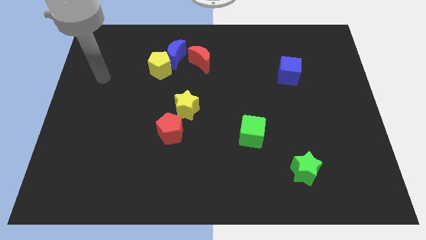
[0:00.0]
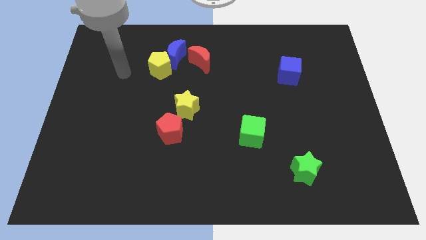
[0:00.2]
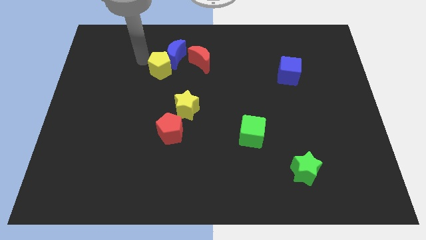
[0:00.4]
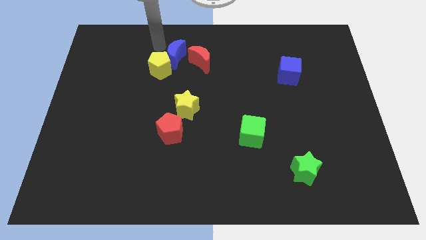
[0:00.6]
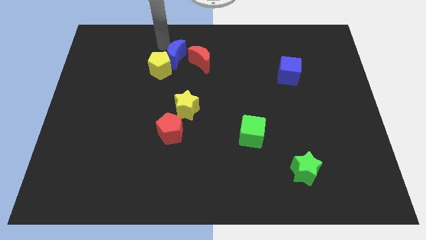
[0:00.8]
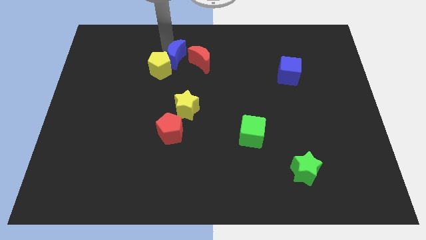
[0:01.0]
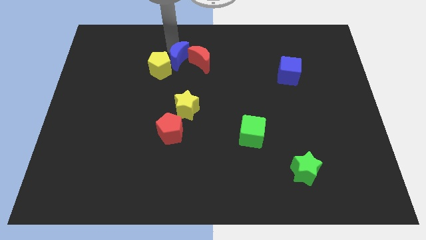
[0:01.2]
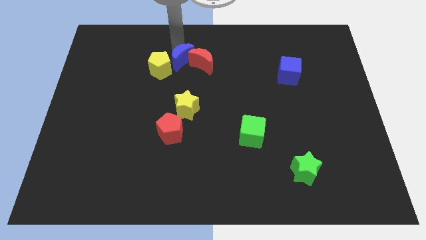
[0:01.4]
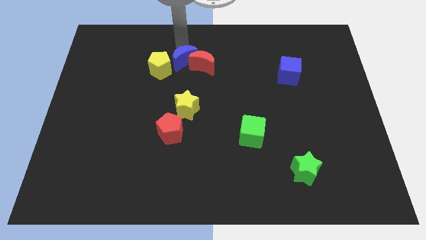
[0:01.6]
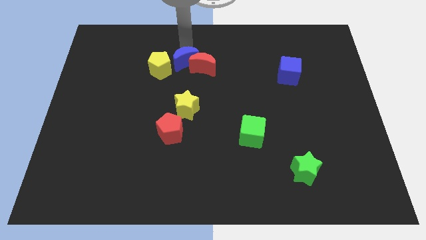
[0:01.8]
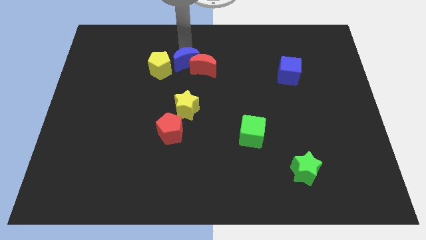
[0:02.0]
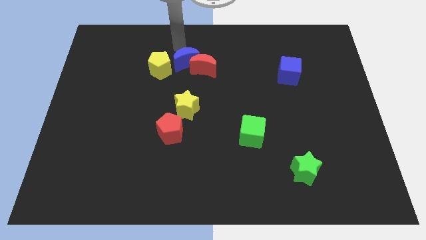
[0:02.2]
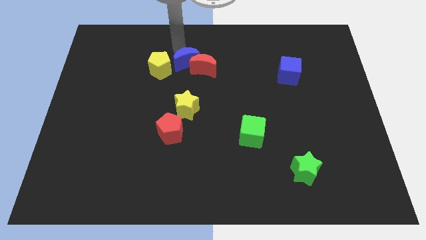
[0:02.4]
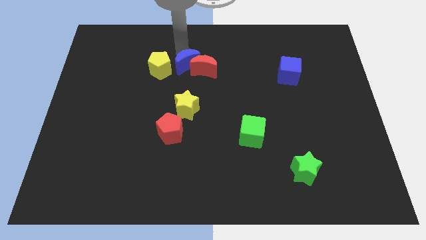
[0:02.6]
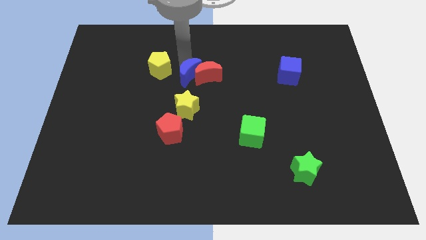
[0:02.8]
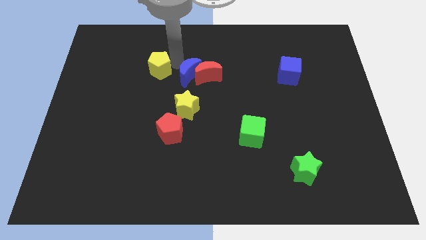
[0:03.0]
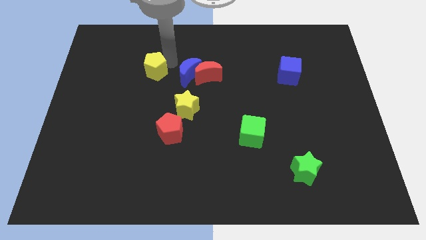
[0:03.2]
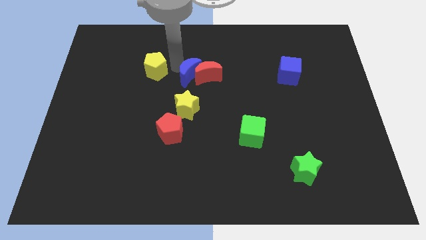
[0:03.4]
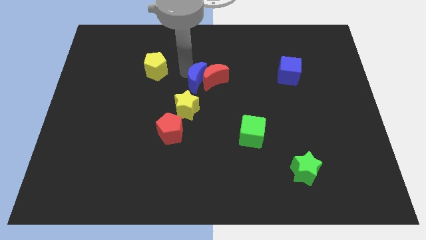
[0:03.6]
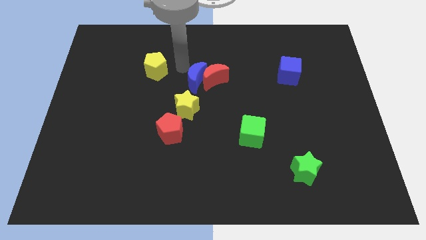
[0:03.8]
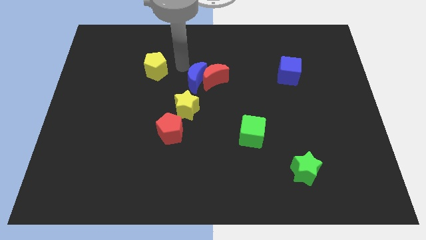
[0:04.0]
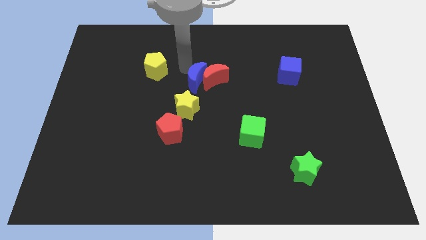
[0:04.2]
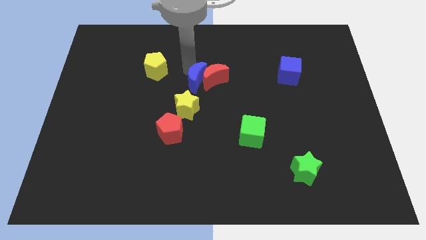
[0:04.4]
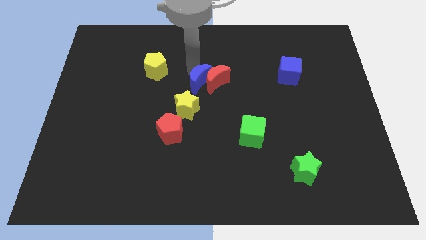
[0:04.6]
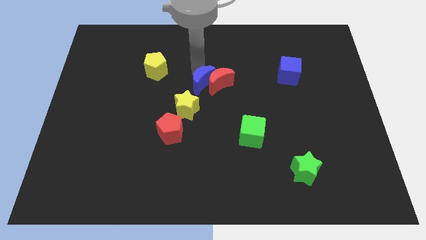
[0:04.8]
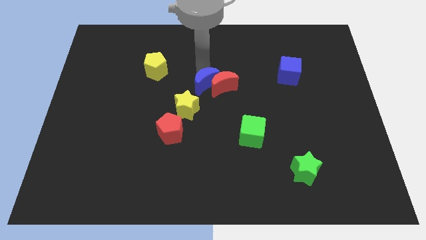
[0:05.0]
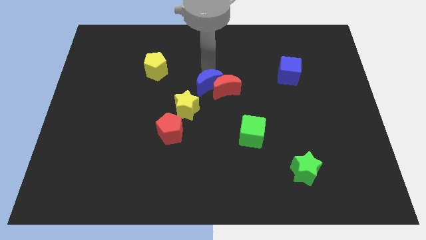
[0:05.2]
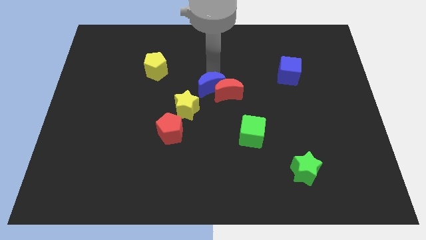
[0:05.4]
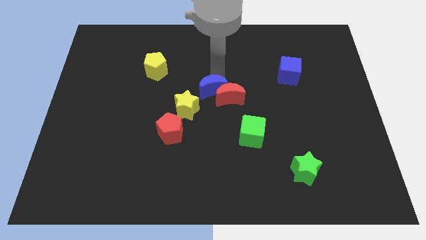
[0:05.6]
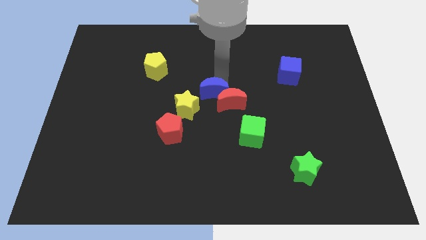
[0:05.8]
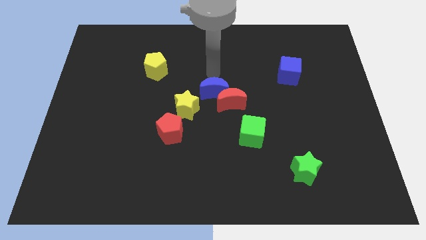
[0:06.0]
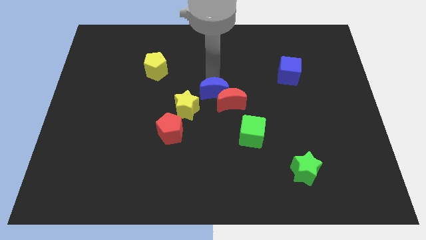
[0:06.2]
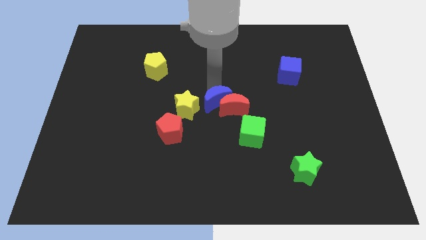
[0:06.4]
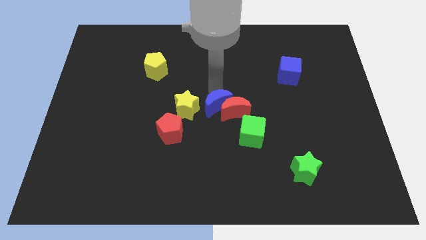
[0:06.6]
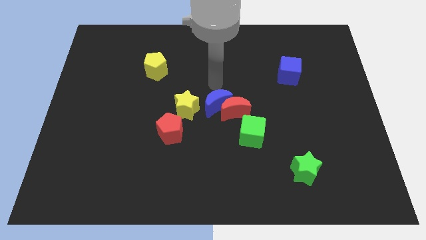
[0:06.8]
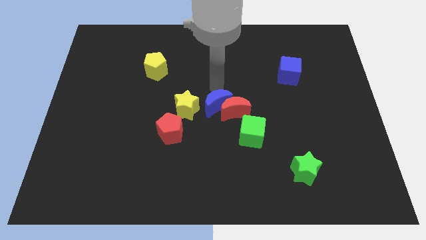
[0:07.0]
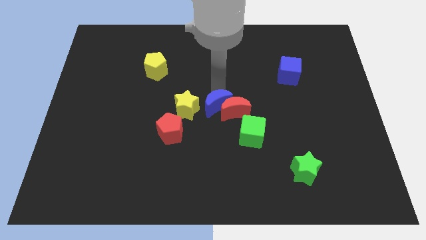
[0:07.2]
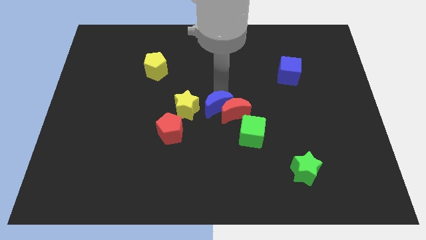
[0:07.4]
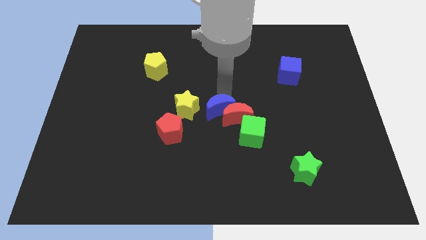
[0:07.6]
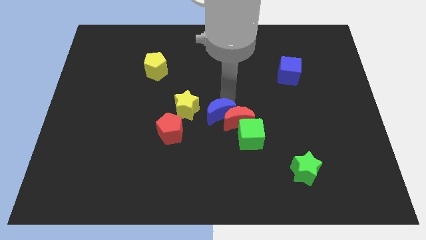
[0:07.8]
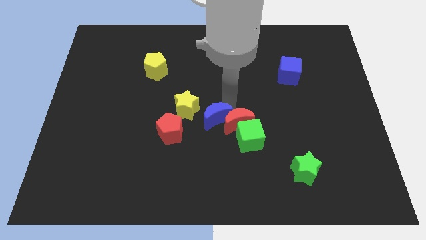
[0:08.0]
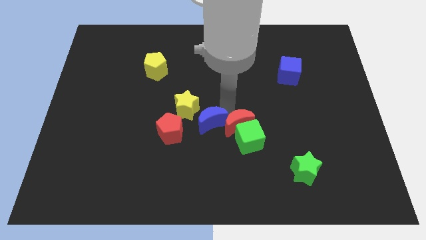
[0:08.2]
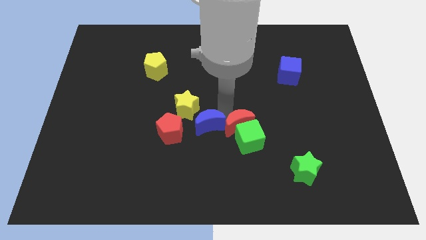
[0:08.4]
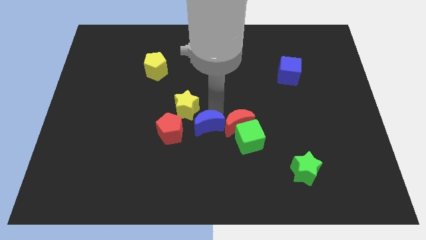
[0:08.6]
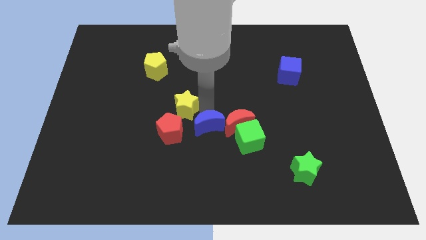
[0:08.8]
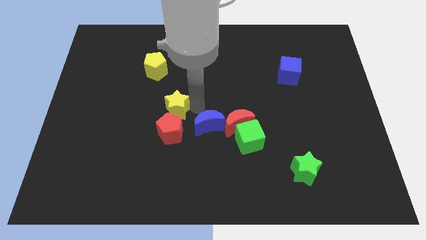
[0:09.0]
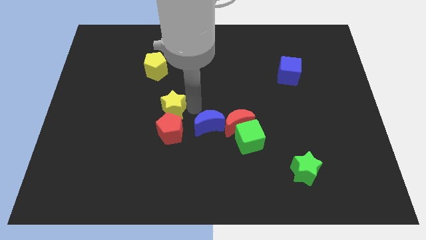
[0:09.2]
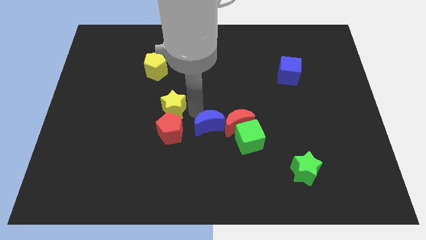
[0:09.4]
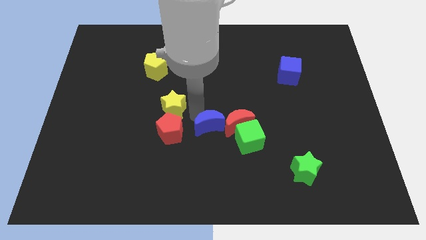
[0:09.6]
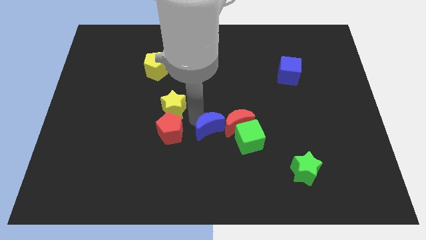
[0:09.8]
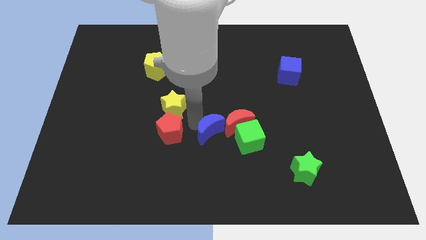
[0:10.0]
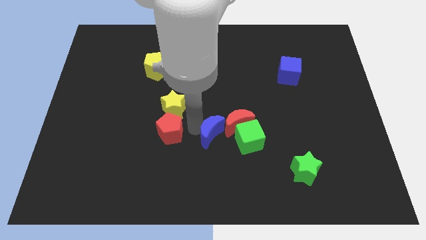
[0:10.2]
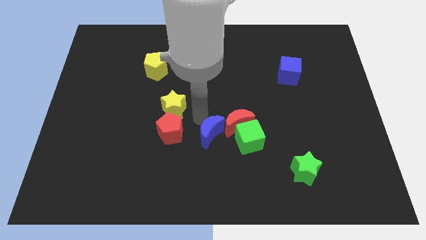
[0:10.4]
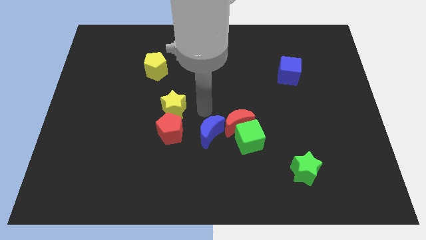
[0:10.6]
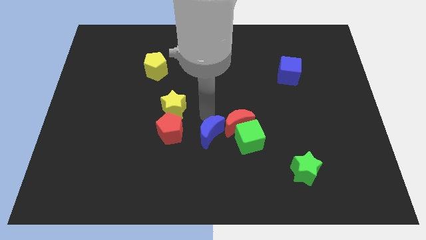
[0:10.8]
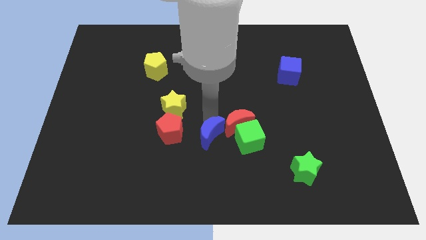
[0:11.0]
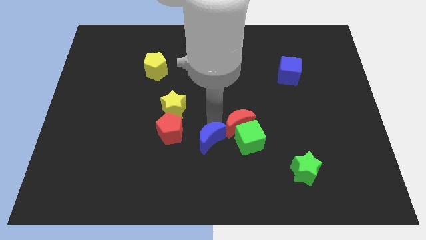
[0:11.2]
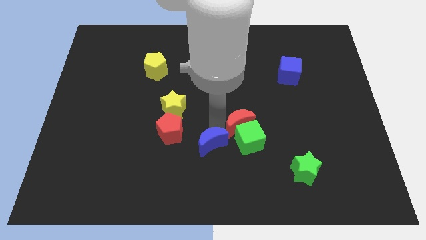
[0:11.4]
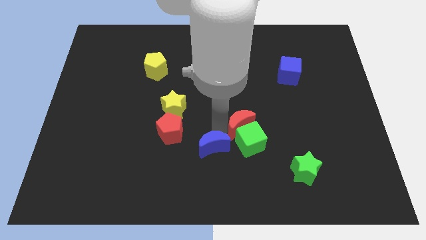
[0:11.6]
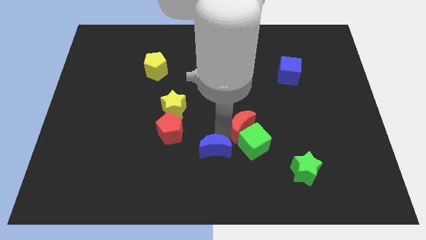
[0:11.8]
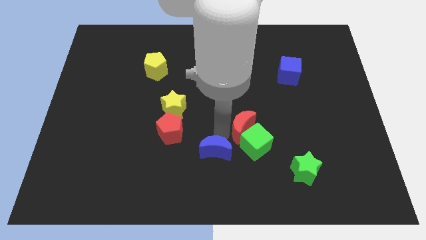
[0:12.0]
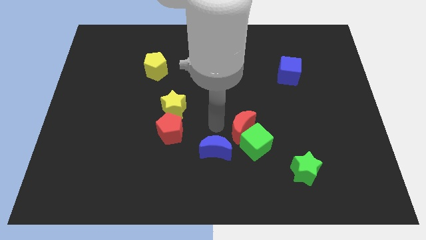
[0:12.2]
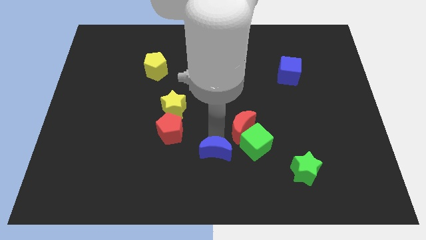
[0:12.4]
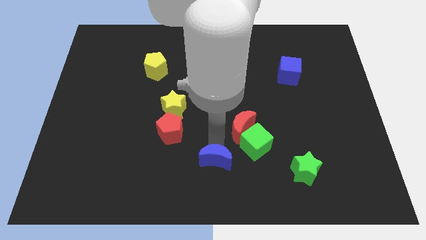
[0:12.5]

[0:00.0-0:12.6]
put the blue moon to the bottom side

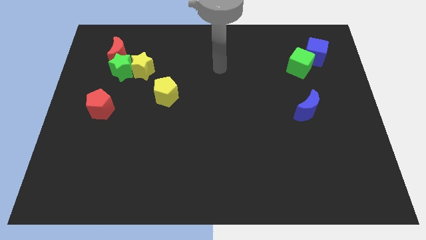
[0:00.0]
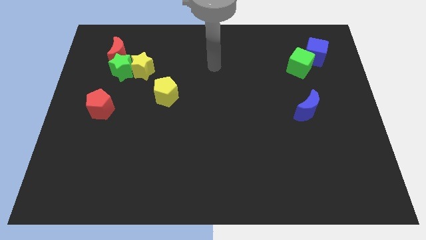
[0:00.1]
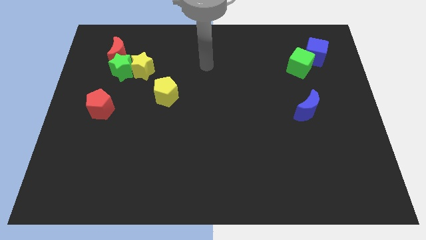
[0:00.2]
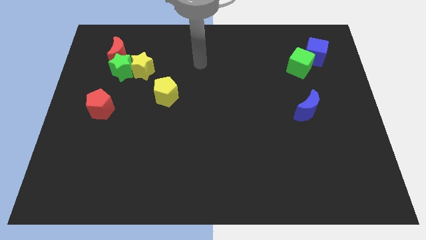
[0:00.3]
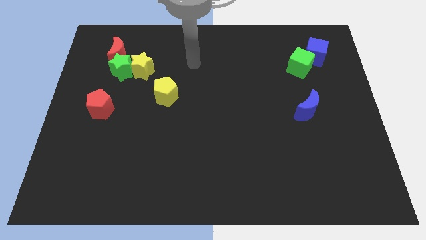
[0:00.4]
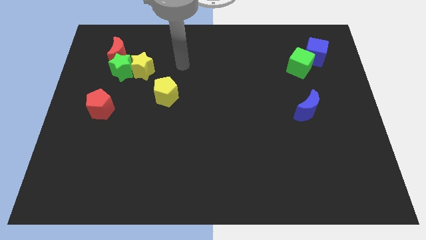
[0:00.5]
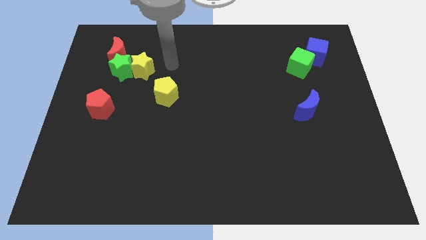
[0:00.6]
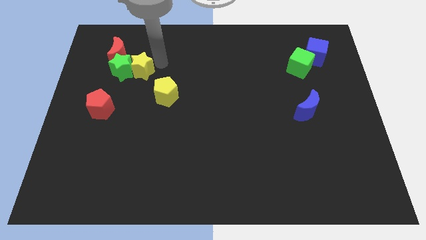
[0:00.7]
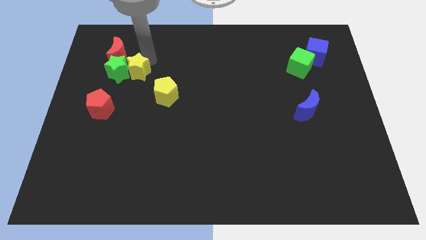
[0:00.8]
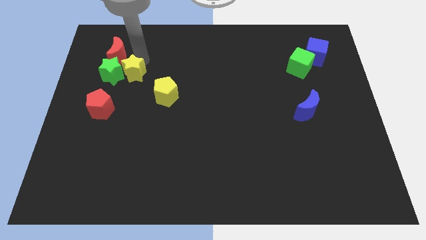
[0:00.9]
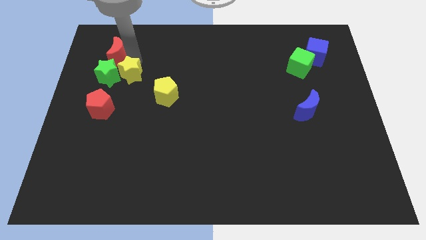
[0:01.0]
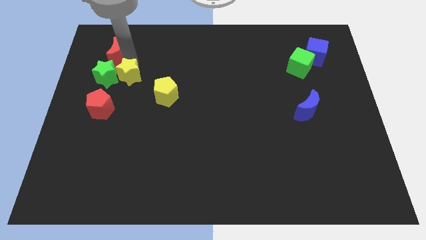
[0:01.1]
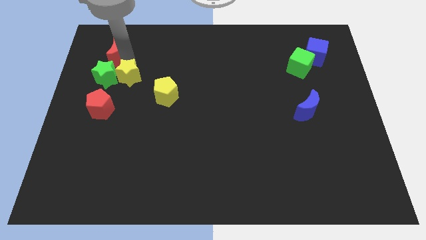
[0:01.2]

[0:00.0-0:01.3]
slide the green star to the center left
